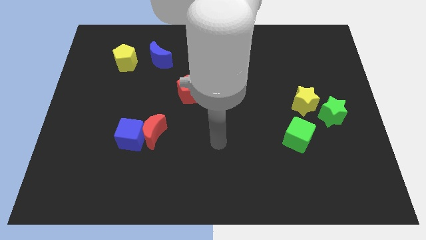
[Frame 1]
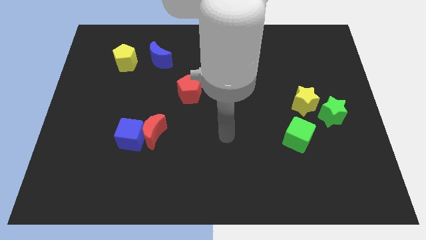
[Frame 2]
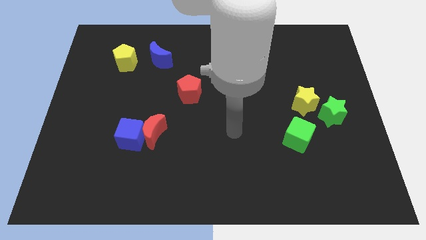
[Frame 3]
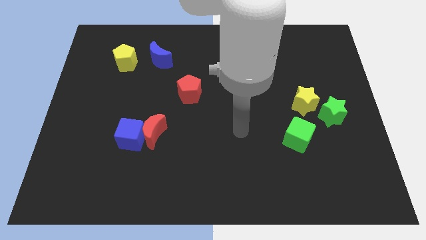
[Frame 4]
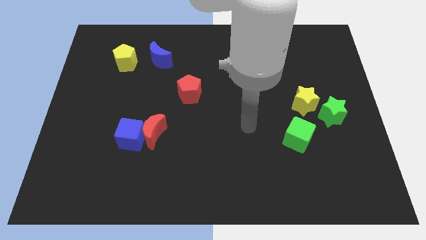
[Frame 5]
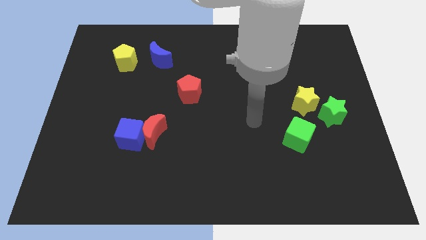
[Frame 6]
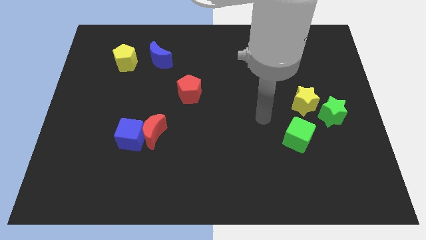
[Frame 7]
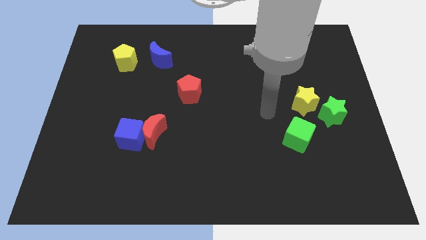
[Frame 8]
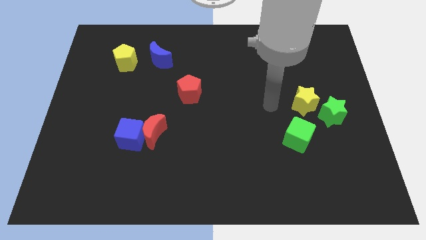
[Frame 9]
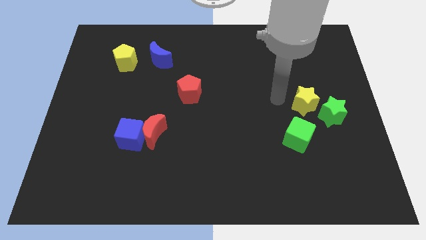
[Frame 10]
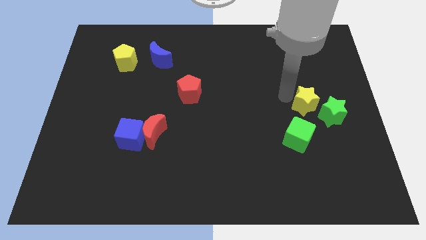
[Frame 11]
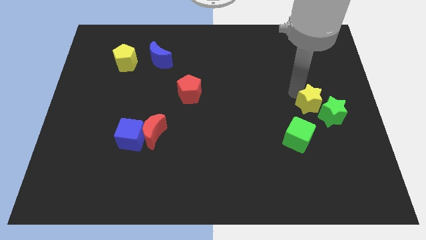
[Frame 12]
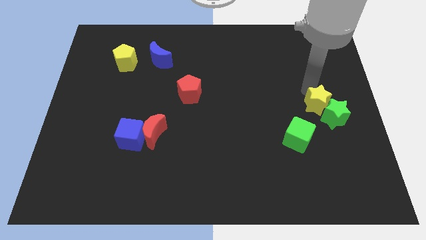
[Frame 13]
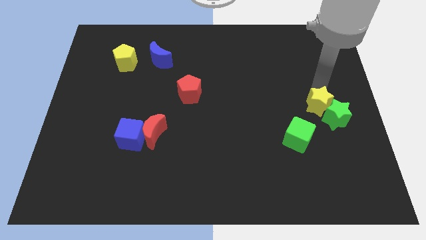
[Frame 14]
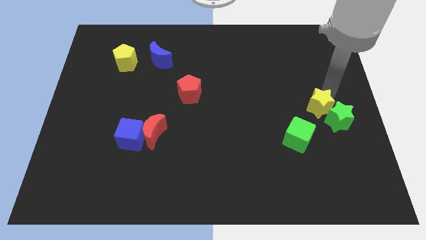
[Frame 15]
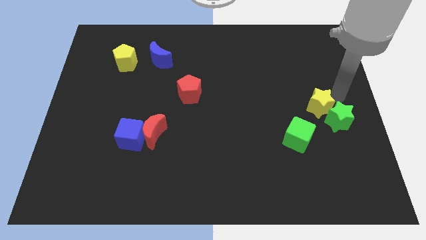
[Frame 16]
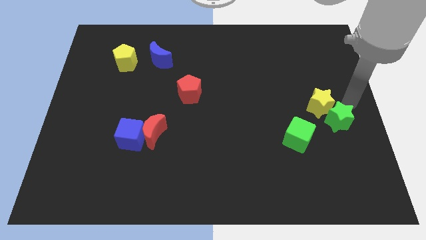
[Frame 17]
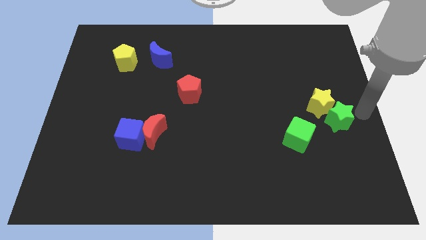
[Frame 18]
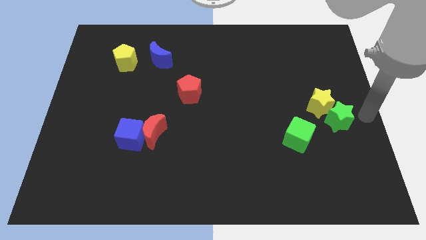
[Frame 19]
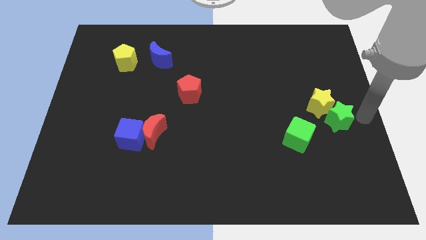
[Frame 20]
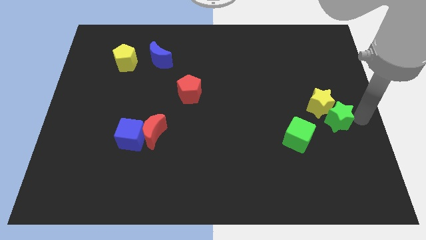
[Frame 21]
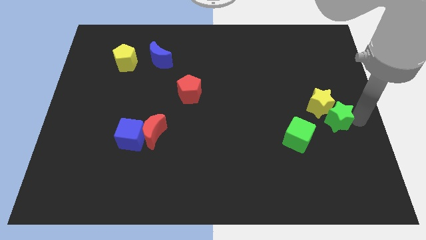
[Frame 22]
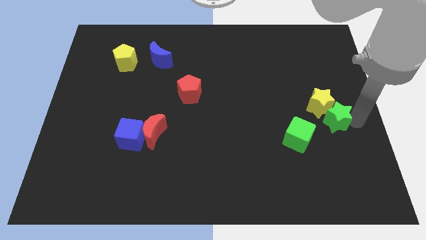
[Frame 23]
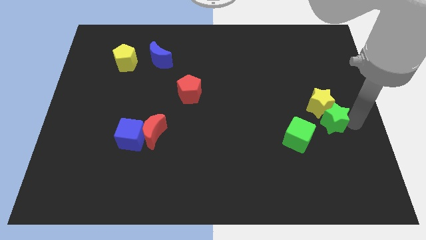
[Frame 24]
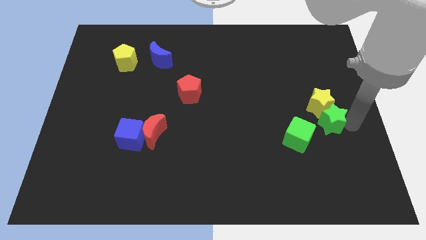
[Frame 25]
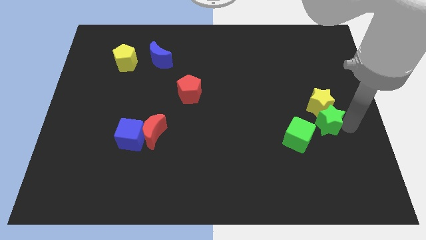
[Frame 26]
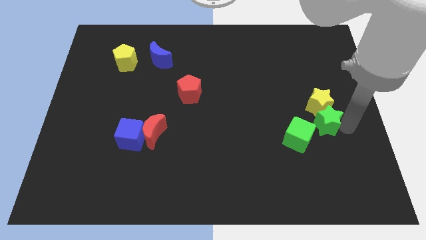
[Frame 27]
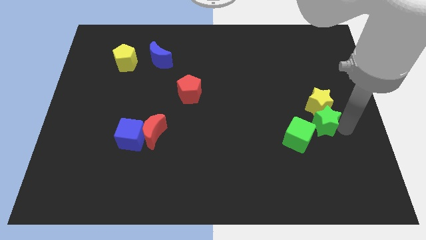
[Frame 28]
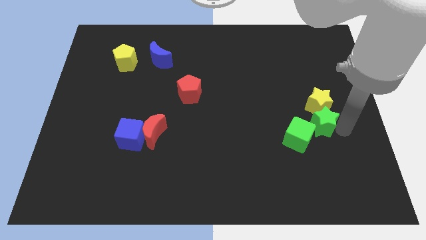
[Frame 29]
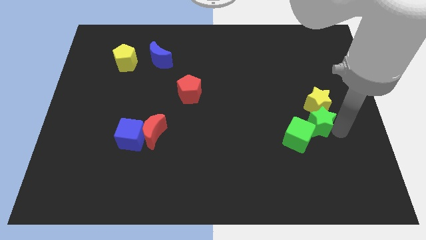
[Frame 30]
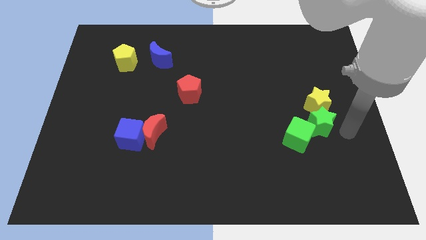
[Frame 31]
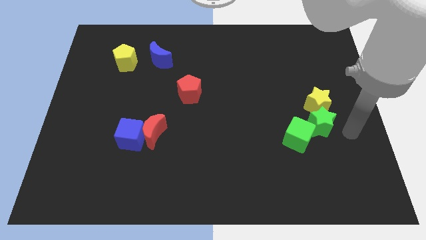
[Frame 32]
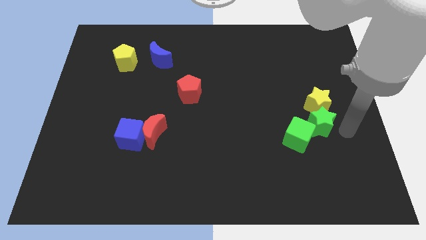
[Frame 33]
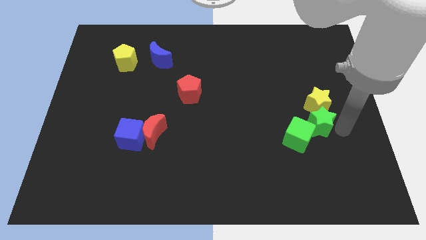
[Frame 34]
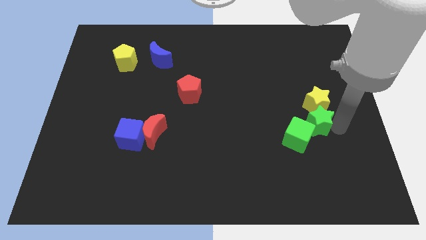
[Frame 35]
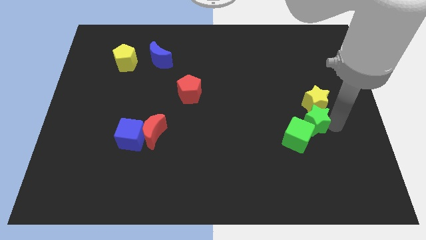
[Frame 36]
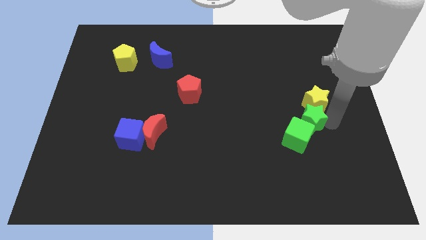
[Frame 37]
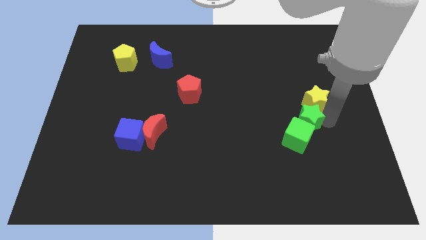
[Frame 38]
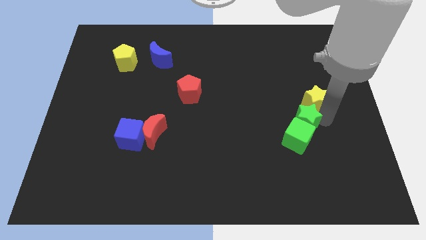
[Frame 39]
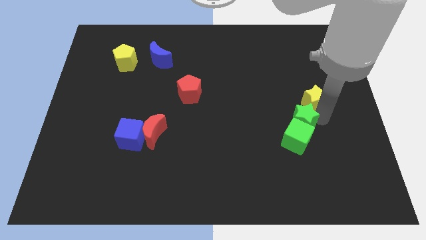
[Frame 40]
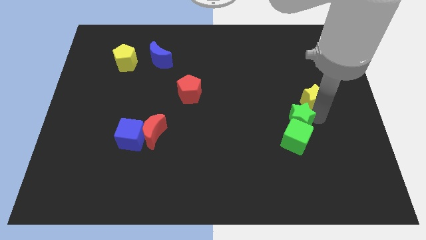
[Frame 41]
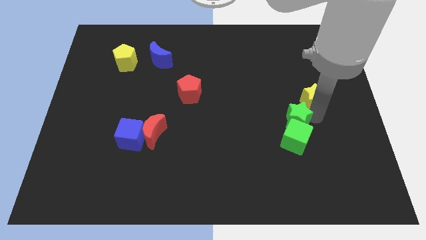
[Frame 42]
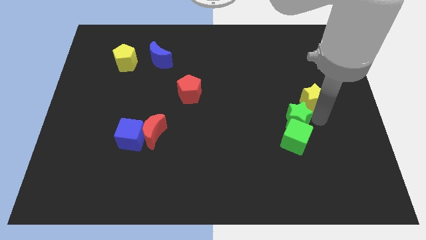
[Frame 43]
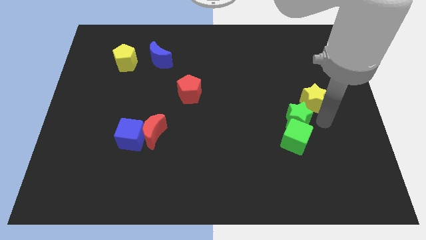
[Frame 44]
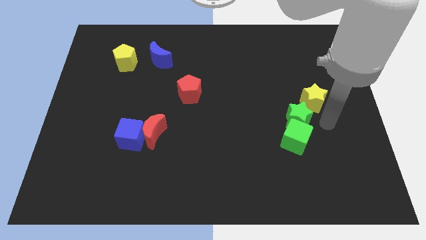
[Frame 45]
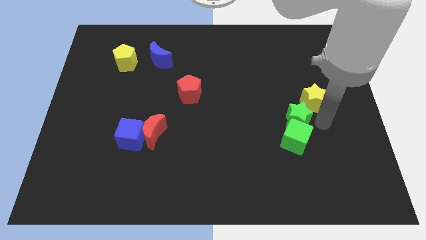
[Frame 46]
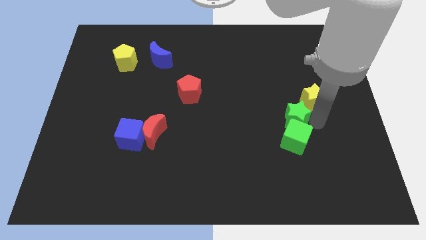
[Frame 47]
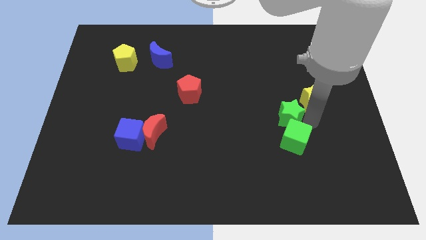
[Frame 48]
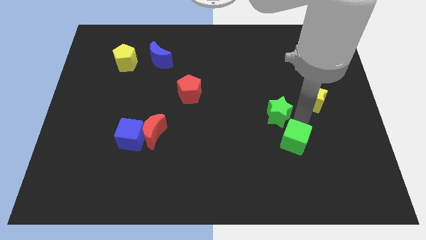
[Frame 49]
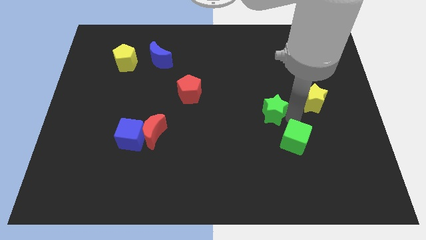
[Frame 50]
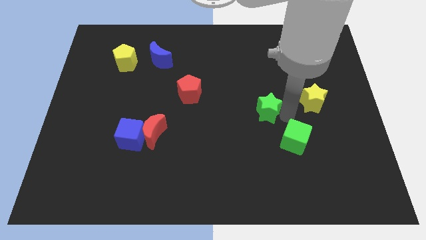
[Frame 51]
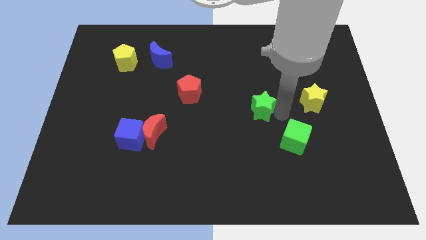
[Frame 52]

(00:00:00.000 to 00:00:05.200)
put the green star to the middle of the board
